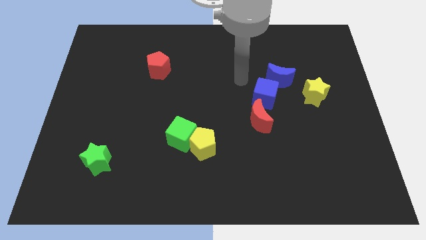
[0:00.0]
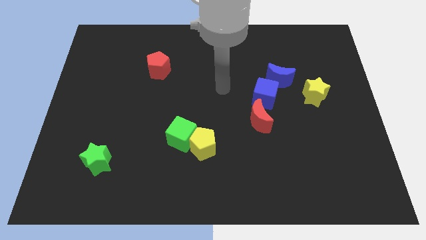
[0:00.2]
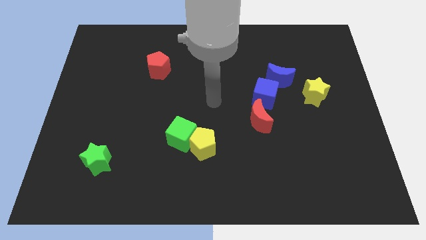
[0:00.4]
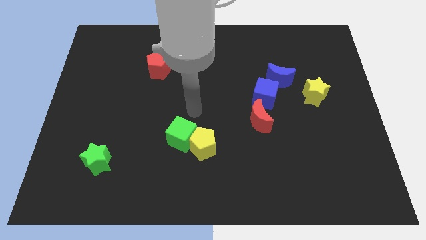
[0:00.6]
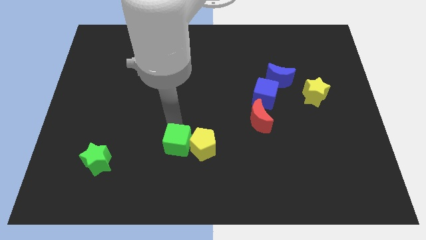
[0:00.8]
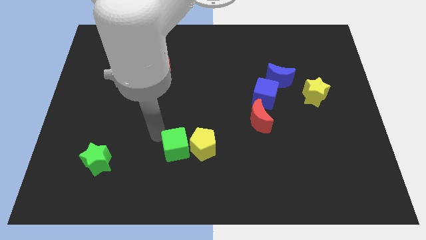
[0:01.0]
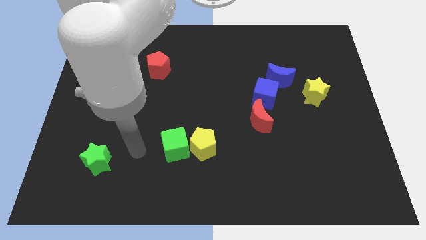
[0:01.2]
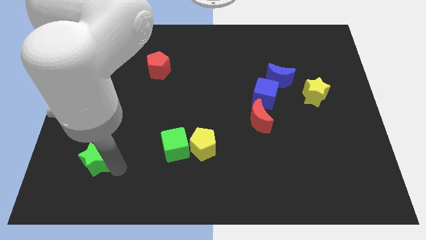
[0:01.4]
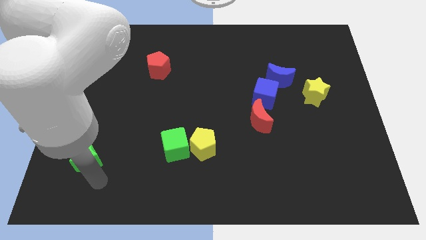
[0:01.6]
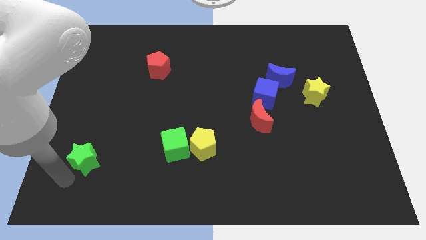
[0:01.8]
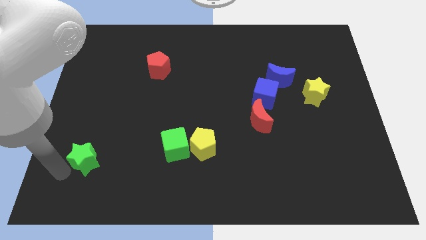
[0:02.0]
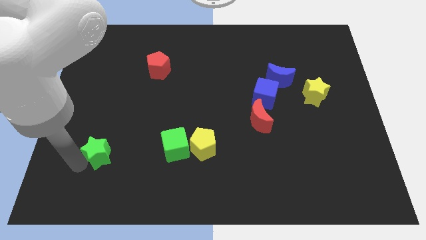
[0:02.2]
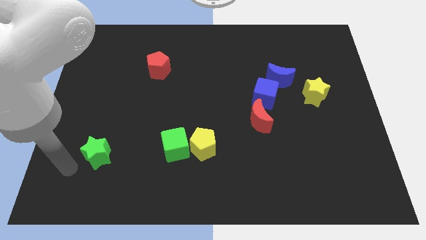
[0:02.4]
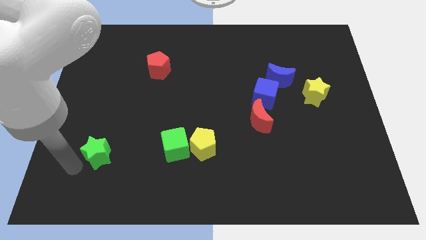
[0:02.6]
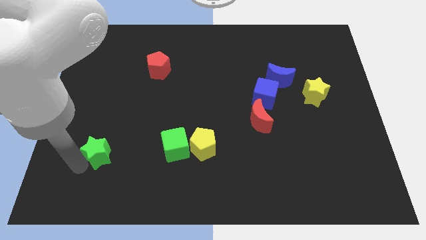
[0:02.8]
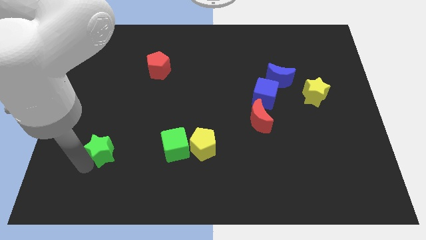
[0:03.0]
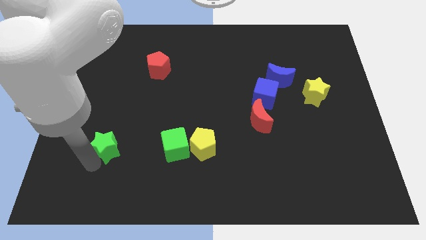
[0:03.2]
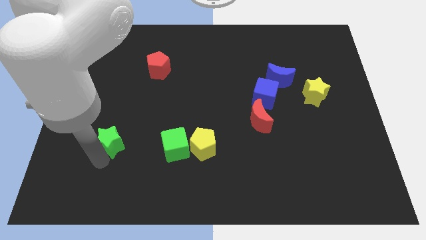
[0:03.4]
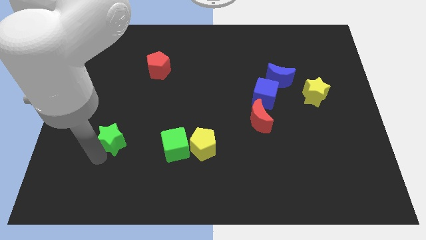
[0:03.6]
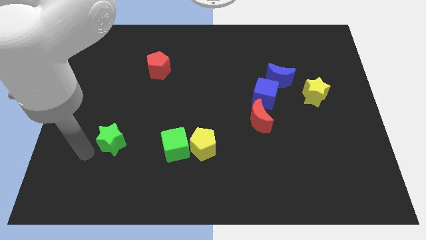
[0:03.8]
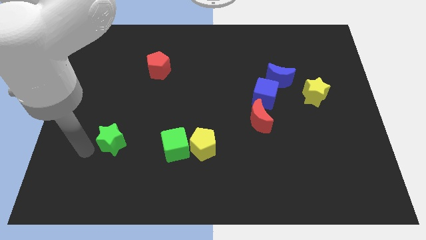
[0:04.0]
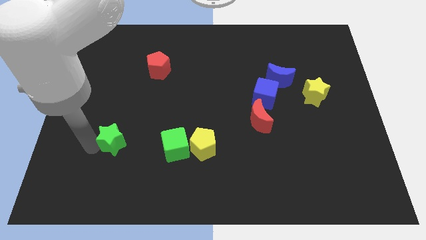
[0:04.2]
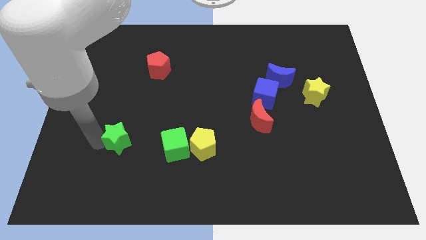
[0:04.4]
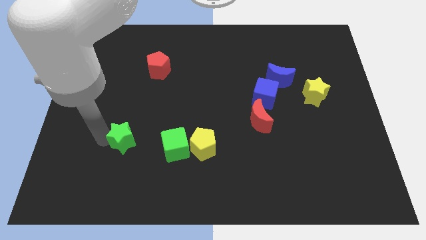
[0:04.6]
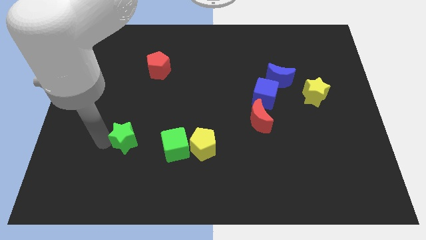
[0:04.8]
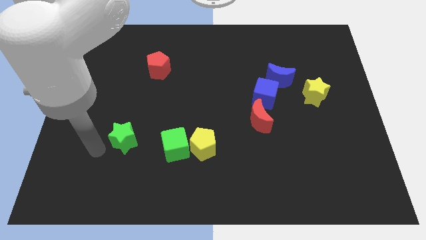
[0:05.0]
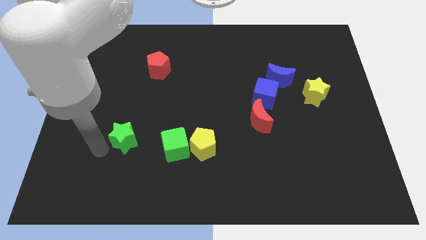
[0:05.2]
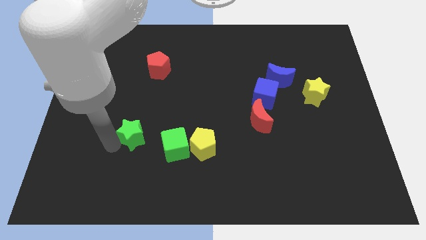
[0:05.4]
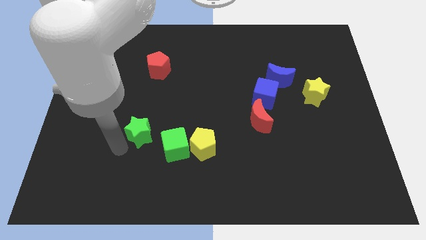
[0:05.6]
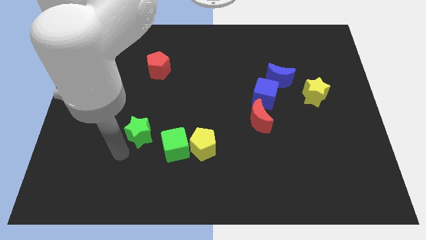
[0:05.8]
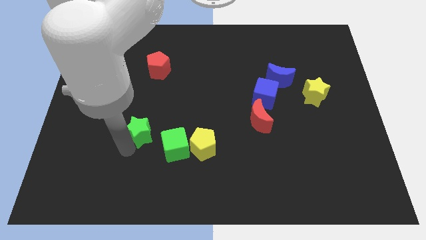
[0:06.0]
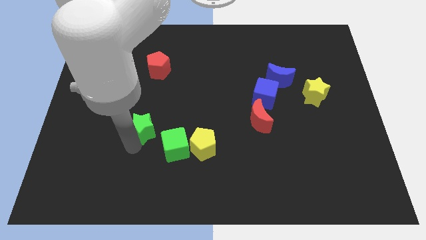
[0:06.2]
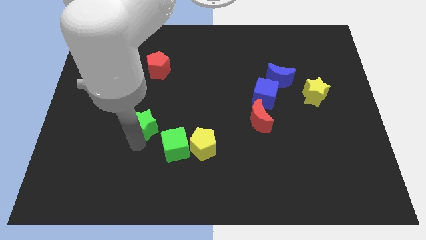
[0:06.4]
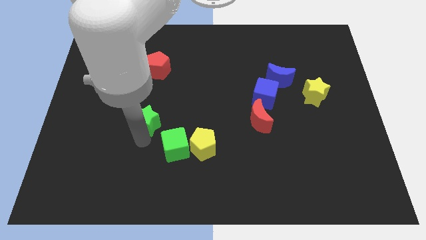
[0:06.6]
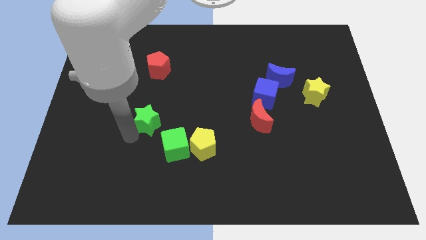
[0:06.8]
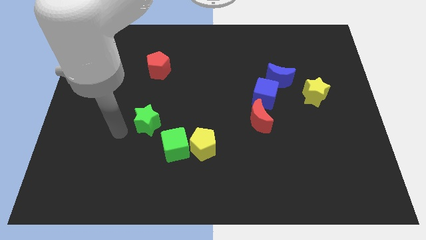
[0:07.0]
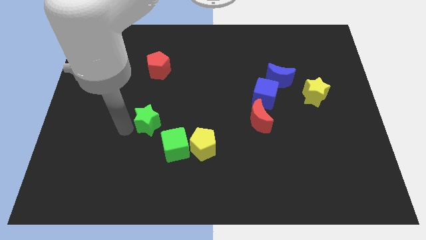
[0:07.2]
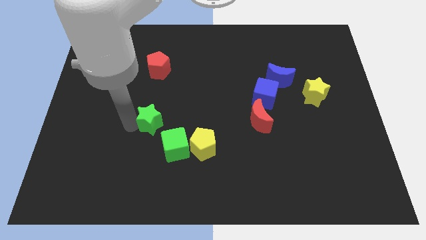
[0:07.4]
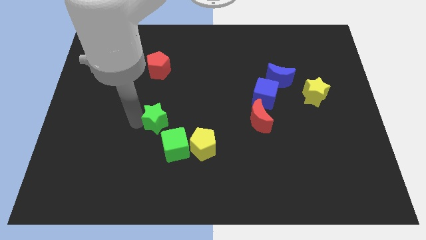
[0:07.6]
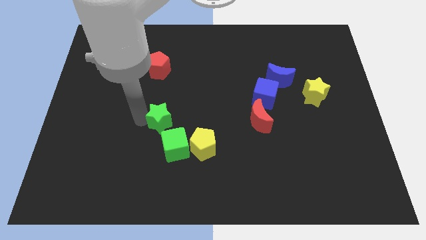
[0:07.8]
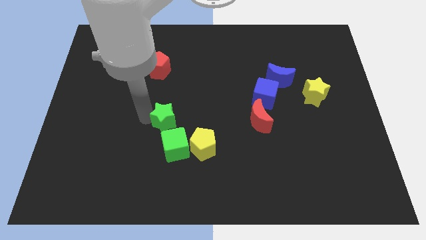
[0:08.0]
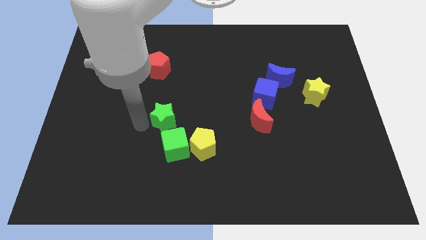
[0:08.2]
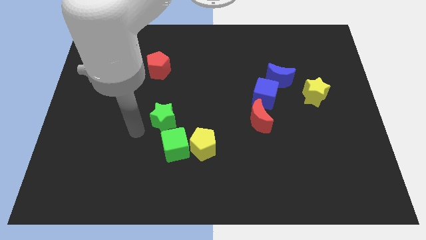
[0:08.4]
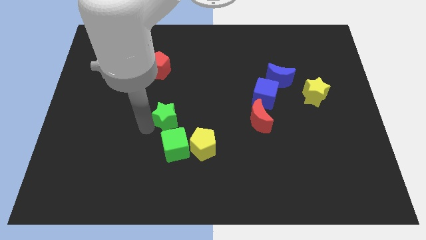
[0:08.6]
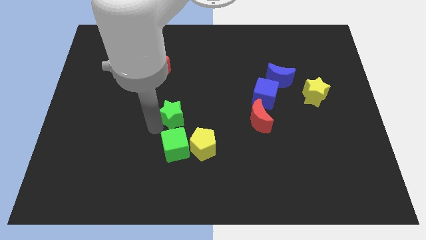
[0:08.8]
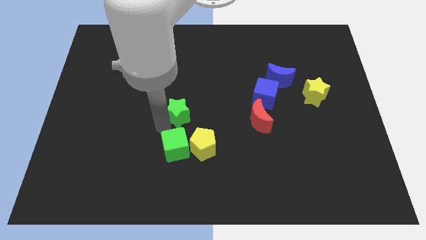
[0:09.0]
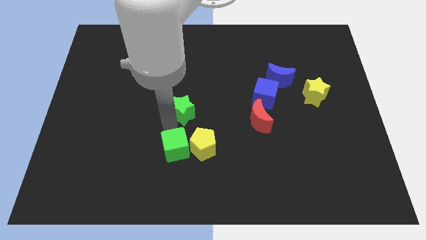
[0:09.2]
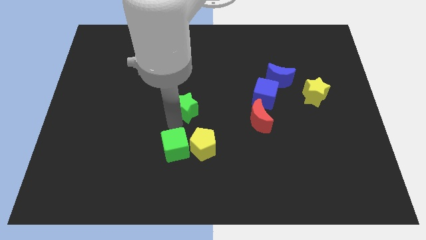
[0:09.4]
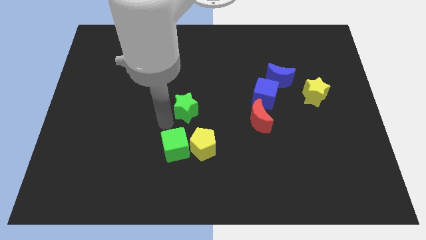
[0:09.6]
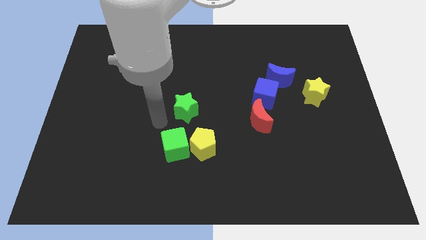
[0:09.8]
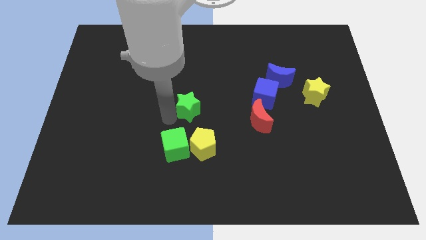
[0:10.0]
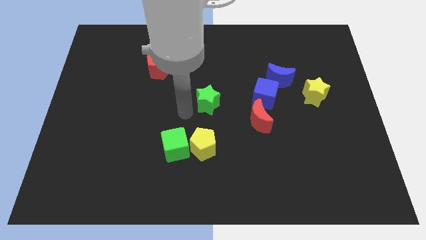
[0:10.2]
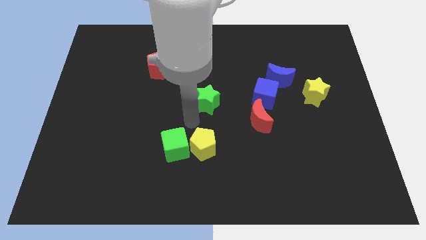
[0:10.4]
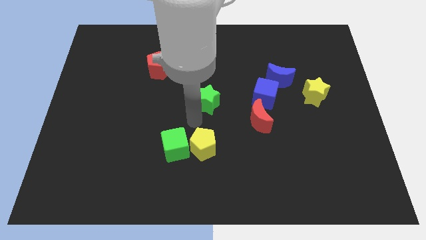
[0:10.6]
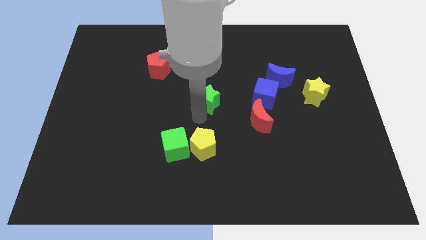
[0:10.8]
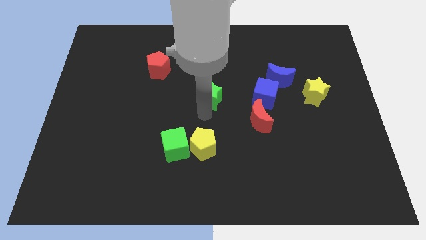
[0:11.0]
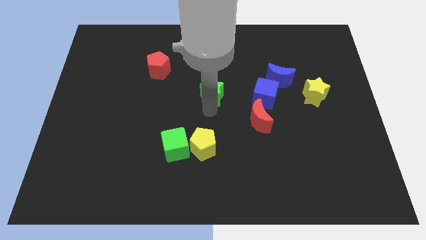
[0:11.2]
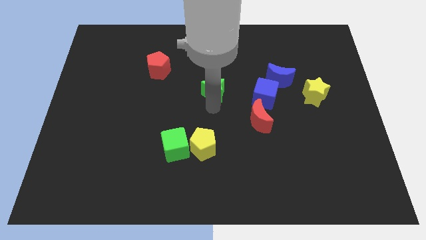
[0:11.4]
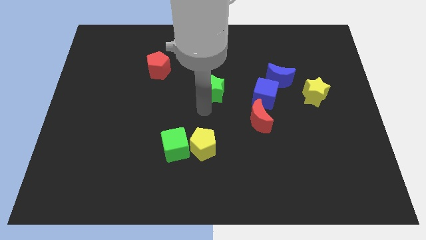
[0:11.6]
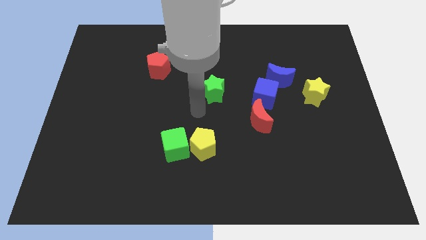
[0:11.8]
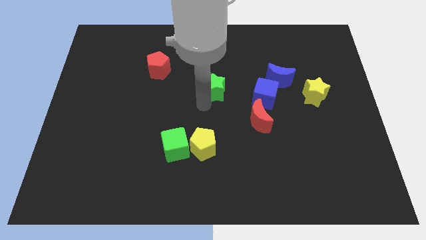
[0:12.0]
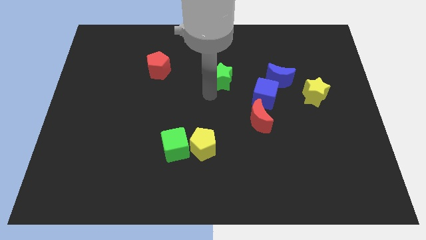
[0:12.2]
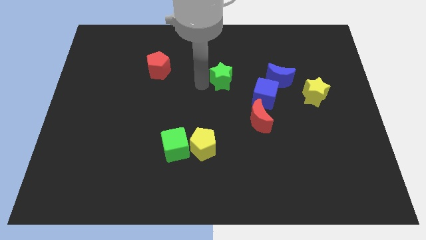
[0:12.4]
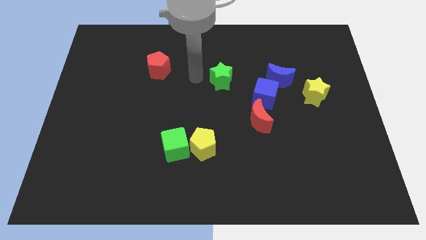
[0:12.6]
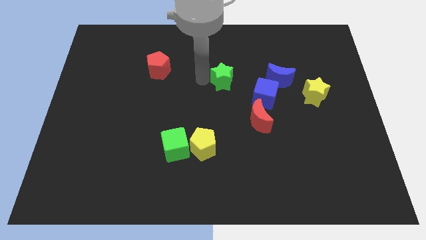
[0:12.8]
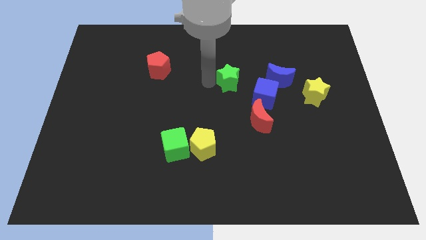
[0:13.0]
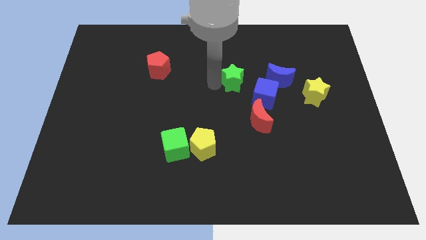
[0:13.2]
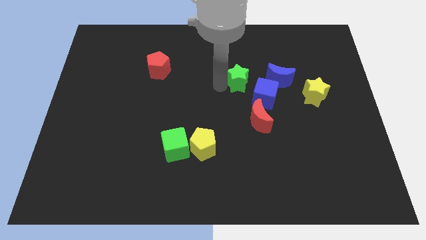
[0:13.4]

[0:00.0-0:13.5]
slide the green star above the red moon
